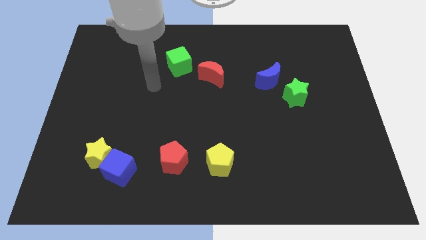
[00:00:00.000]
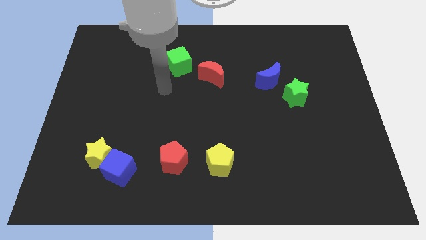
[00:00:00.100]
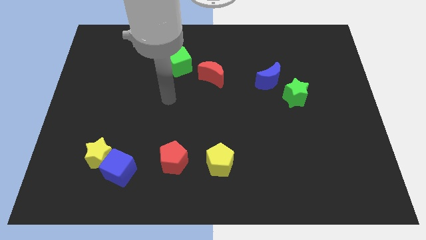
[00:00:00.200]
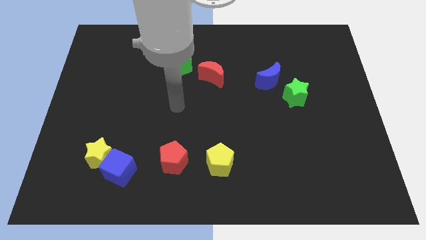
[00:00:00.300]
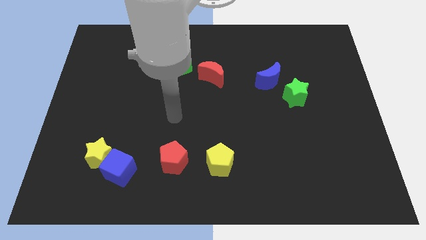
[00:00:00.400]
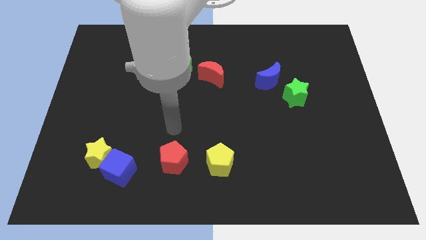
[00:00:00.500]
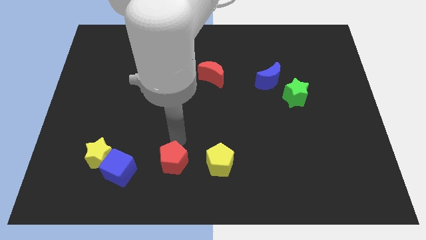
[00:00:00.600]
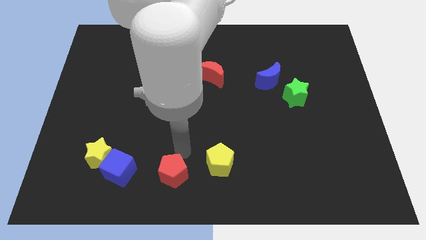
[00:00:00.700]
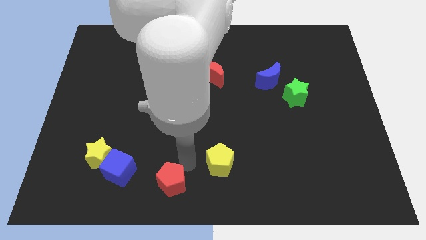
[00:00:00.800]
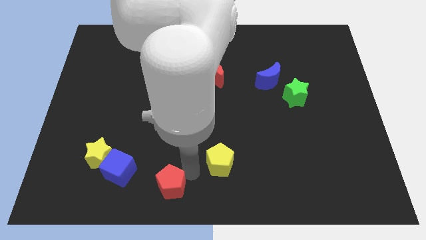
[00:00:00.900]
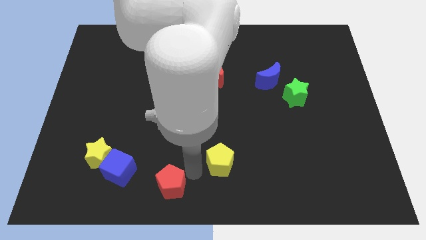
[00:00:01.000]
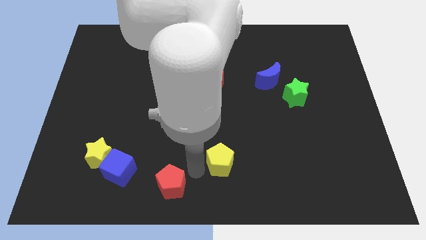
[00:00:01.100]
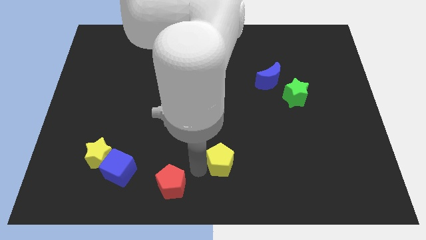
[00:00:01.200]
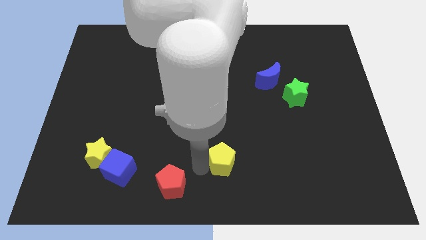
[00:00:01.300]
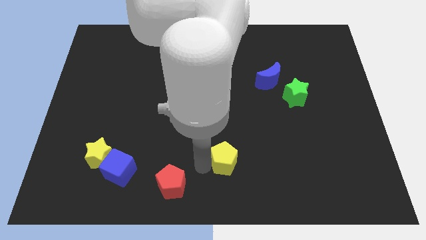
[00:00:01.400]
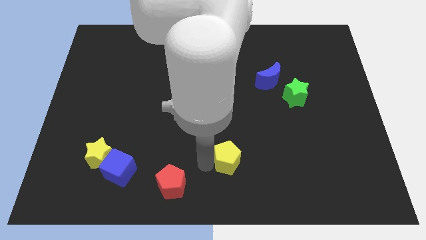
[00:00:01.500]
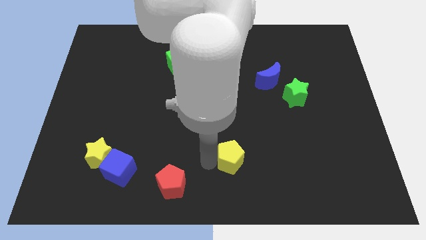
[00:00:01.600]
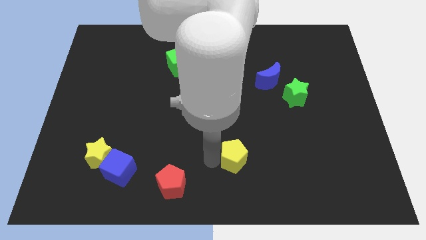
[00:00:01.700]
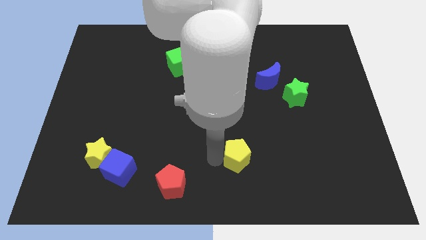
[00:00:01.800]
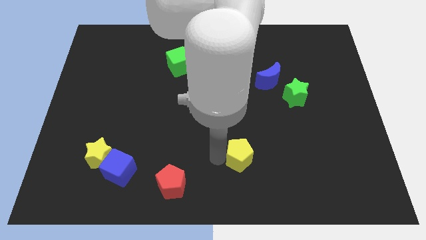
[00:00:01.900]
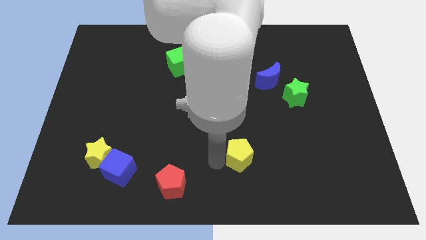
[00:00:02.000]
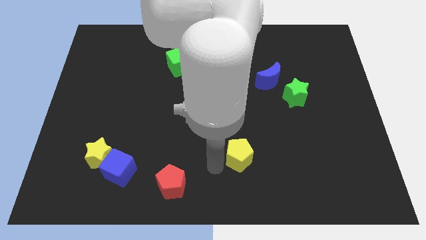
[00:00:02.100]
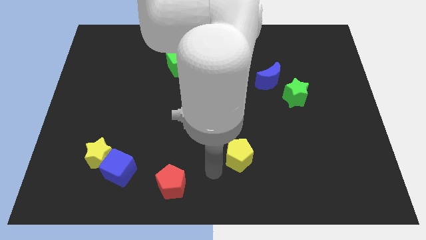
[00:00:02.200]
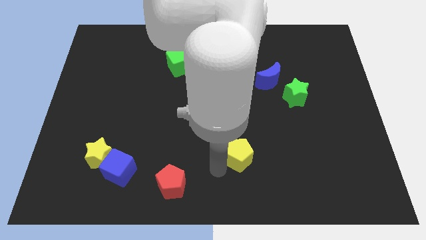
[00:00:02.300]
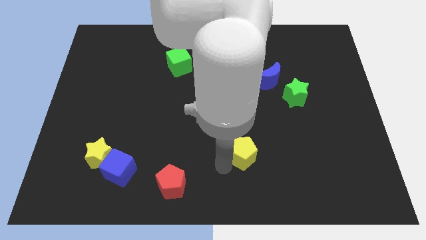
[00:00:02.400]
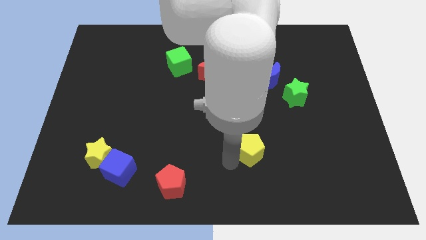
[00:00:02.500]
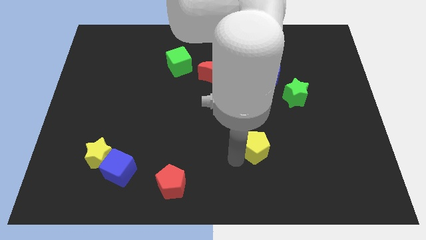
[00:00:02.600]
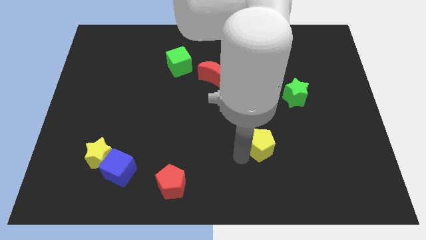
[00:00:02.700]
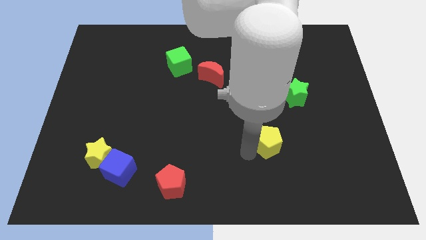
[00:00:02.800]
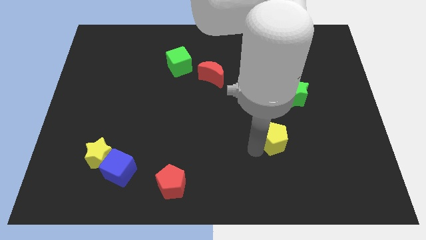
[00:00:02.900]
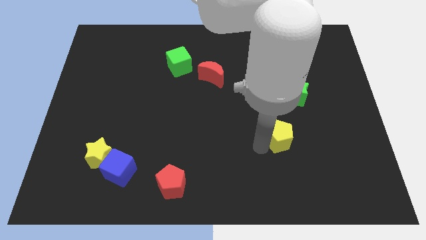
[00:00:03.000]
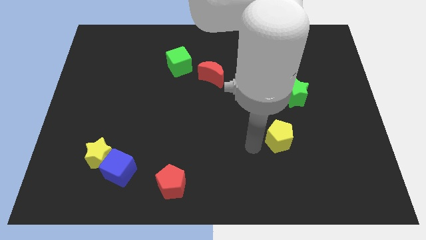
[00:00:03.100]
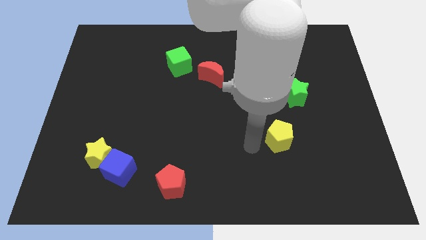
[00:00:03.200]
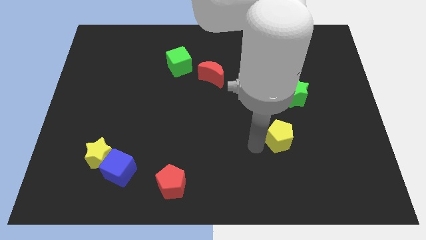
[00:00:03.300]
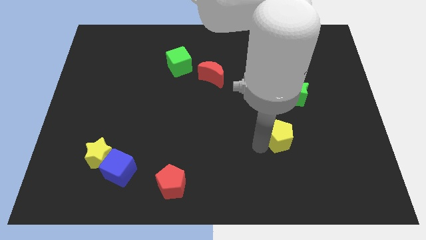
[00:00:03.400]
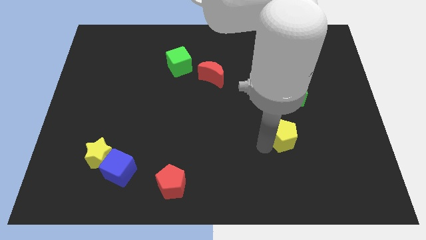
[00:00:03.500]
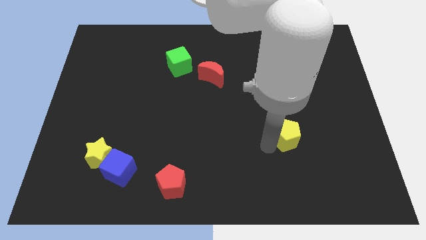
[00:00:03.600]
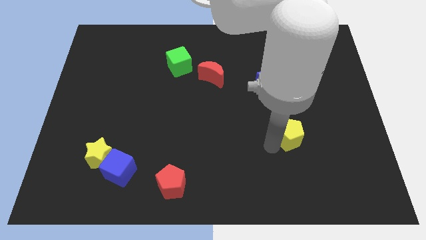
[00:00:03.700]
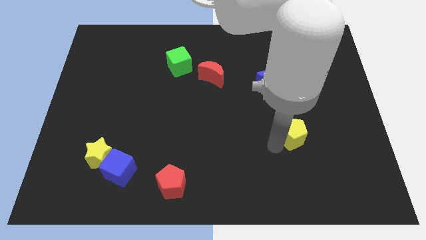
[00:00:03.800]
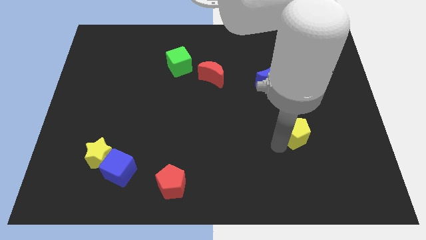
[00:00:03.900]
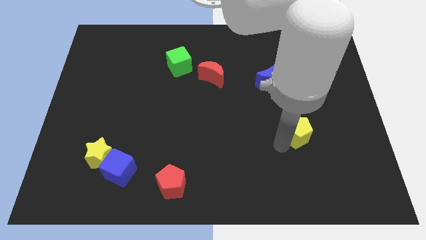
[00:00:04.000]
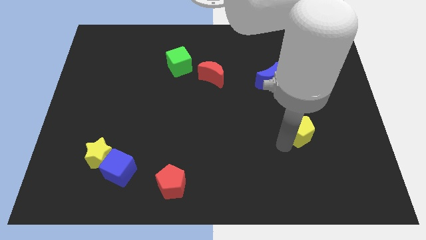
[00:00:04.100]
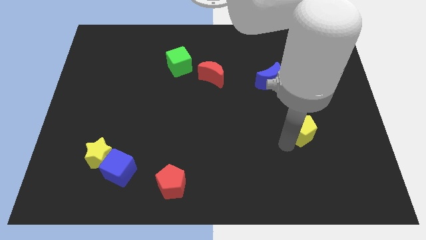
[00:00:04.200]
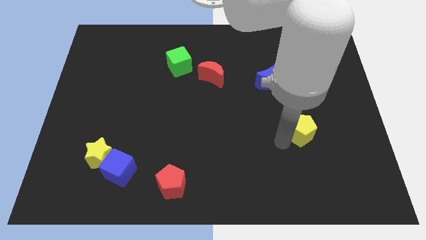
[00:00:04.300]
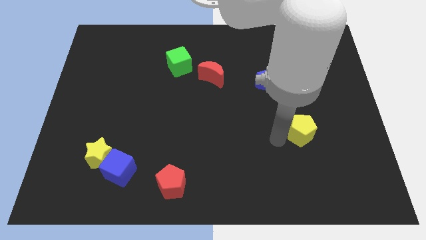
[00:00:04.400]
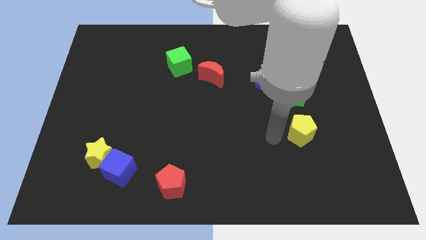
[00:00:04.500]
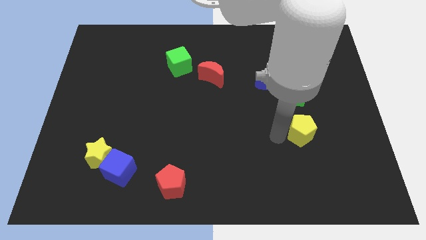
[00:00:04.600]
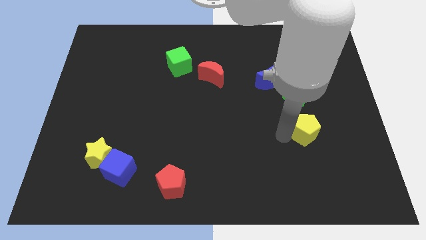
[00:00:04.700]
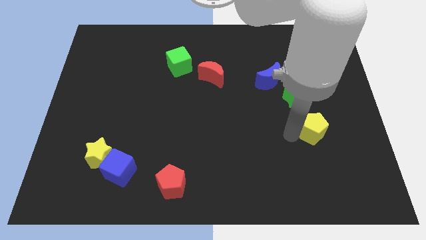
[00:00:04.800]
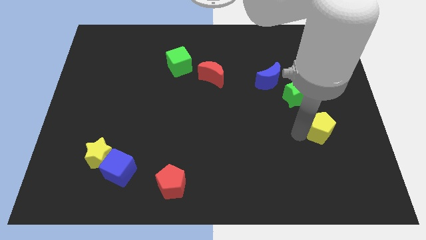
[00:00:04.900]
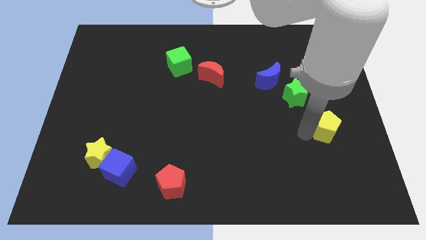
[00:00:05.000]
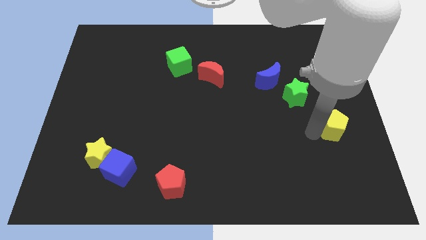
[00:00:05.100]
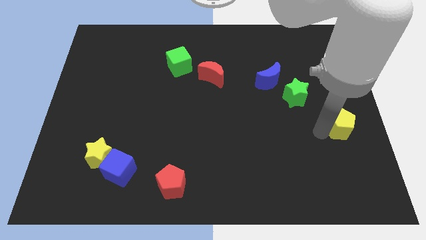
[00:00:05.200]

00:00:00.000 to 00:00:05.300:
slide the yellow pentagon to the right side
